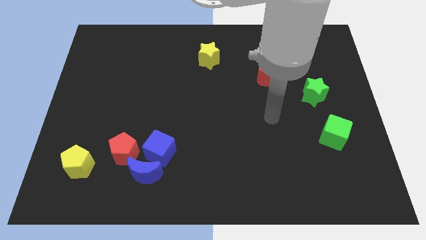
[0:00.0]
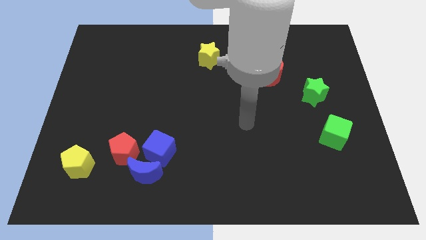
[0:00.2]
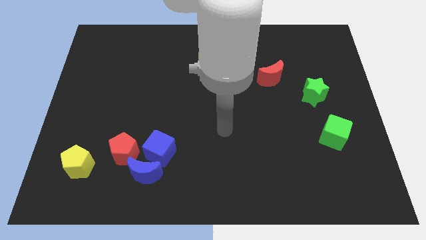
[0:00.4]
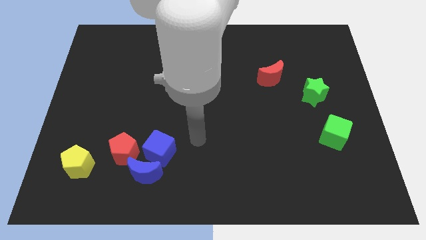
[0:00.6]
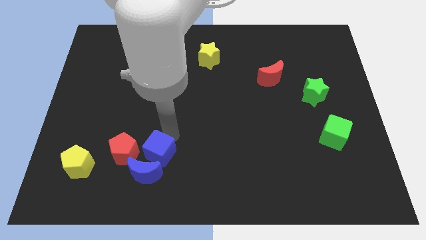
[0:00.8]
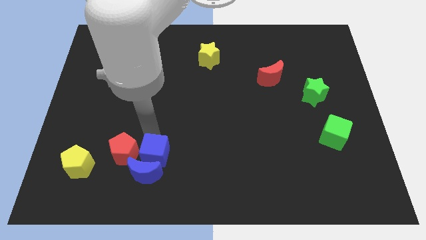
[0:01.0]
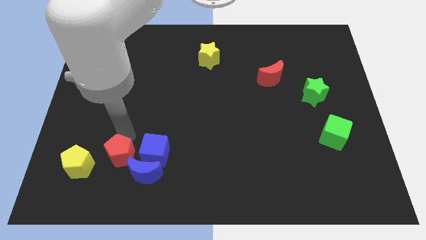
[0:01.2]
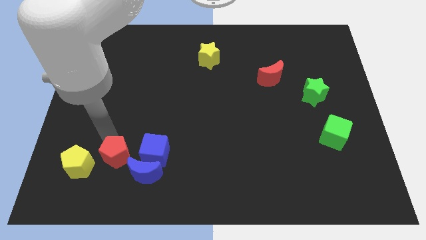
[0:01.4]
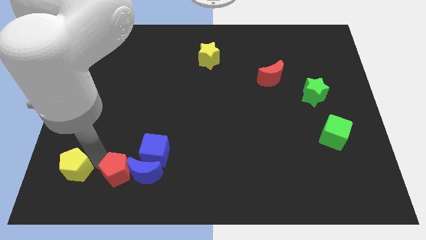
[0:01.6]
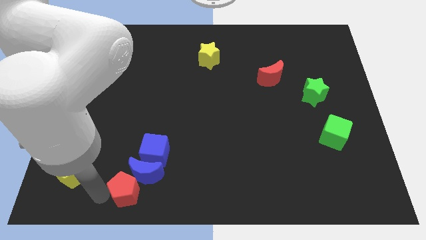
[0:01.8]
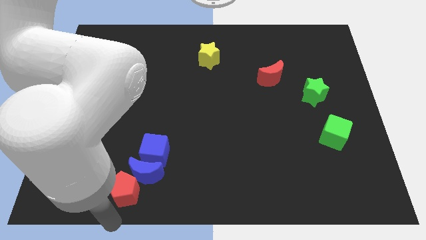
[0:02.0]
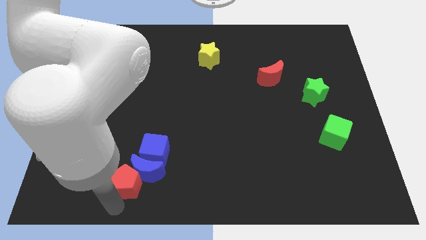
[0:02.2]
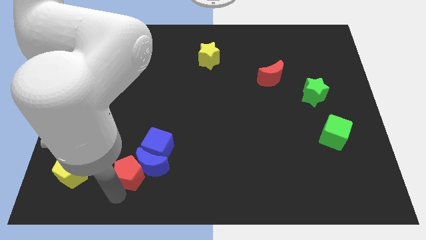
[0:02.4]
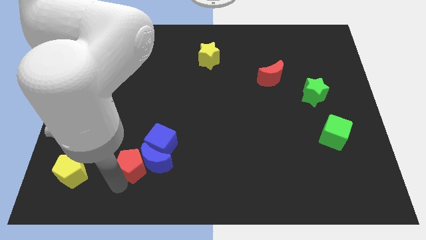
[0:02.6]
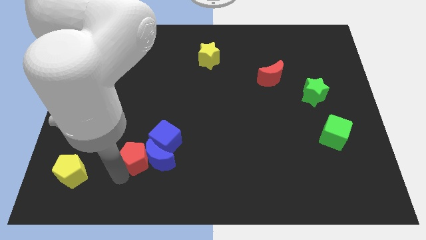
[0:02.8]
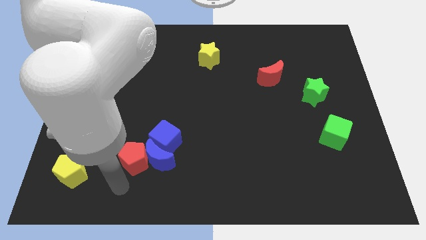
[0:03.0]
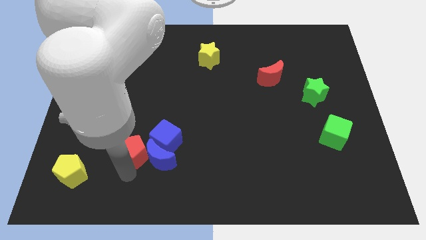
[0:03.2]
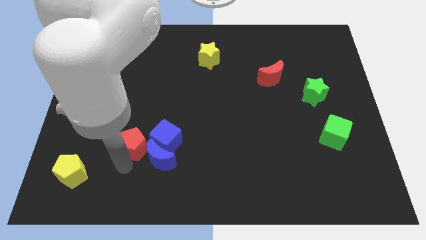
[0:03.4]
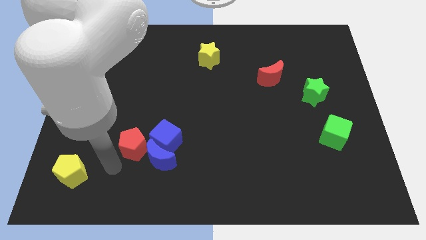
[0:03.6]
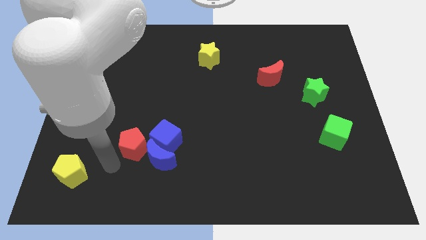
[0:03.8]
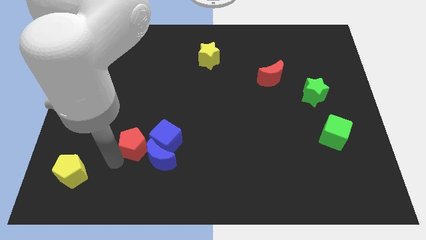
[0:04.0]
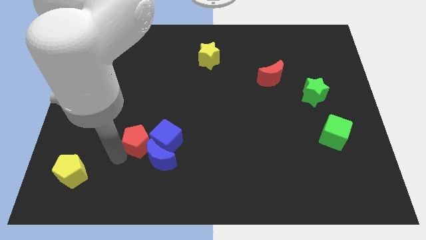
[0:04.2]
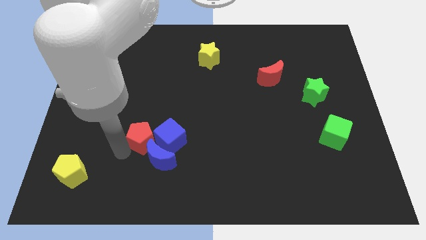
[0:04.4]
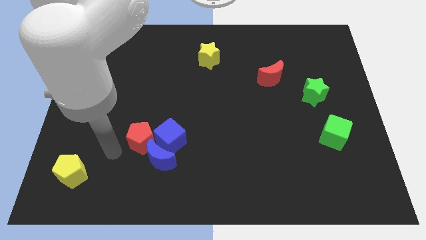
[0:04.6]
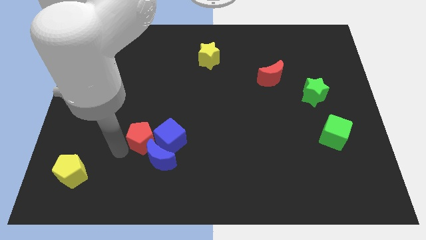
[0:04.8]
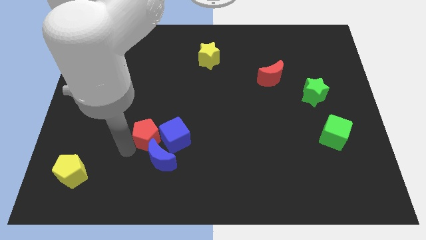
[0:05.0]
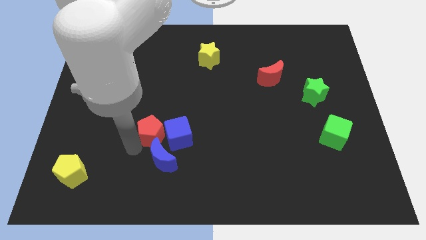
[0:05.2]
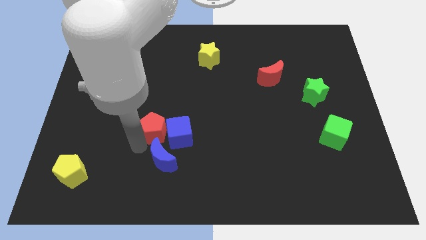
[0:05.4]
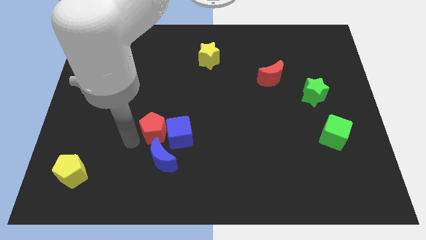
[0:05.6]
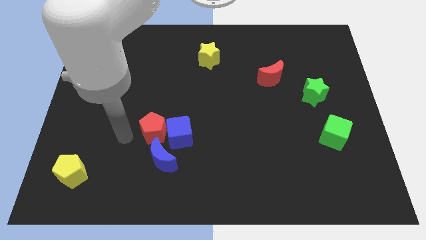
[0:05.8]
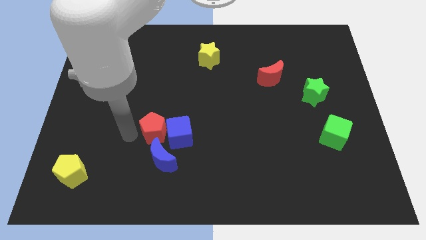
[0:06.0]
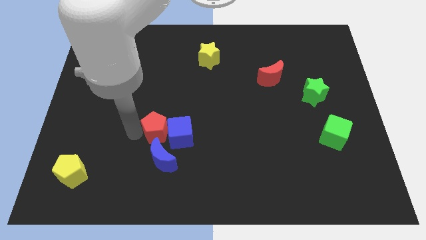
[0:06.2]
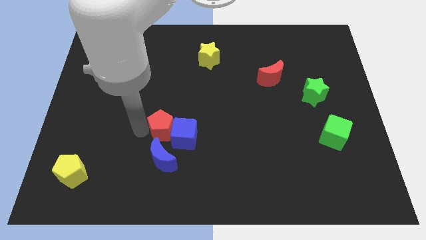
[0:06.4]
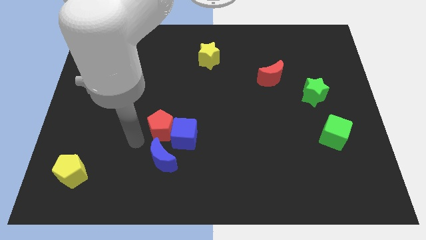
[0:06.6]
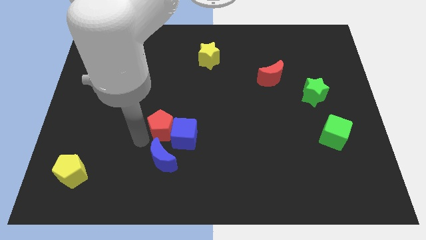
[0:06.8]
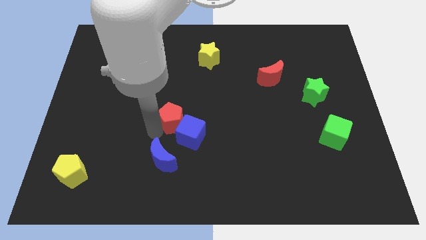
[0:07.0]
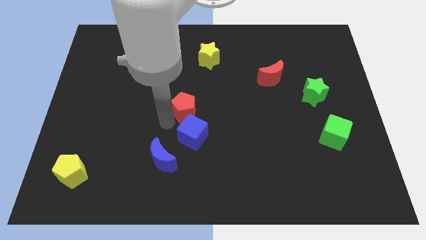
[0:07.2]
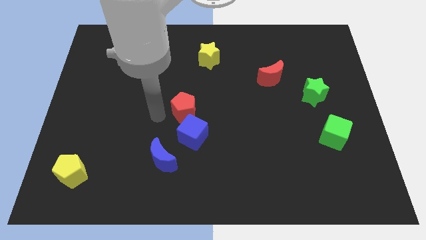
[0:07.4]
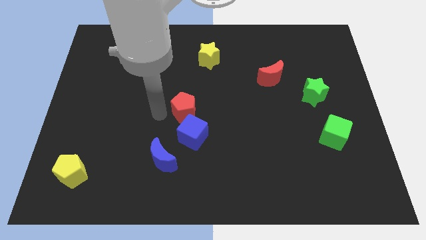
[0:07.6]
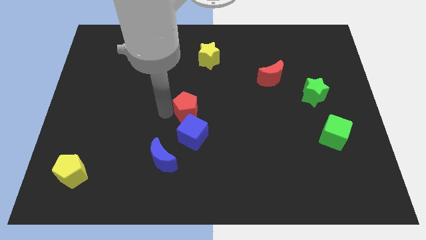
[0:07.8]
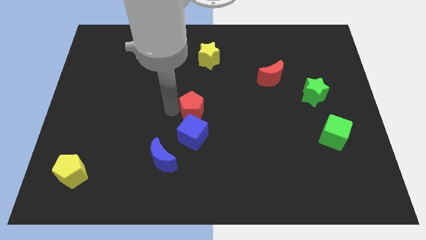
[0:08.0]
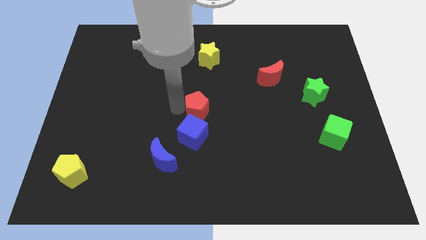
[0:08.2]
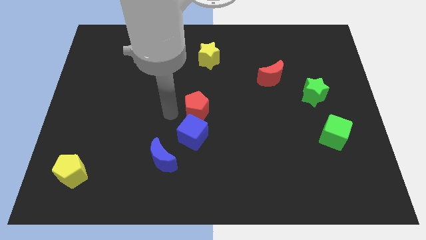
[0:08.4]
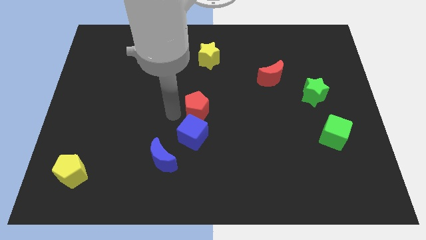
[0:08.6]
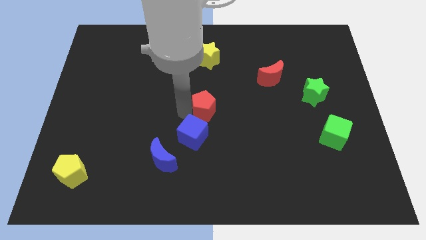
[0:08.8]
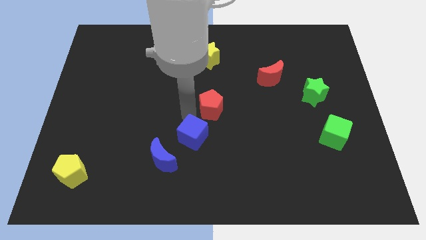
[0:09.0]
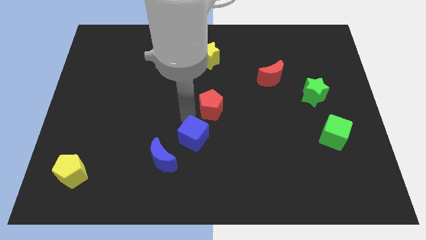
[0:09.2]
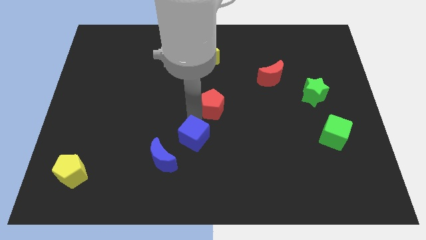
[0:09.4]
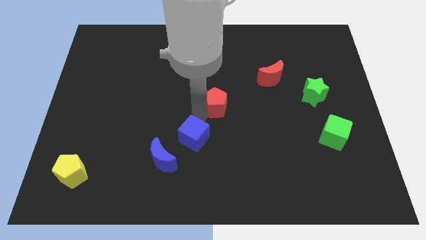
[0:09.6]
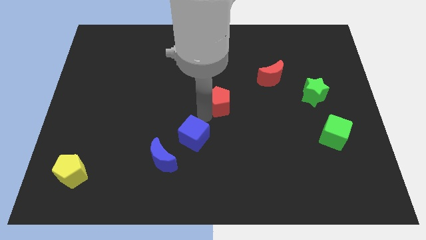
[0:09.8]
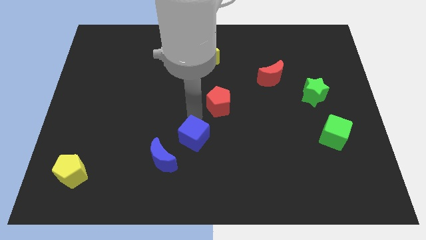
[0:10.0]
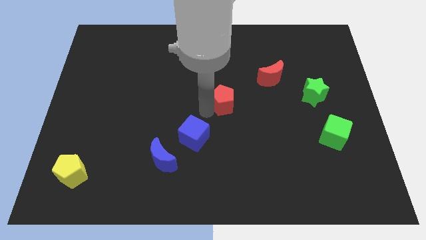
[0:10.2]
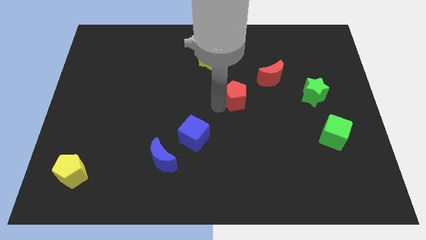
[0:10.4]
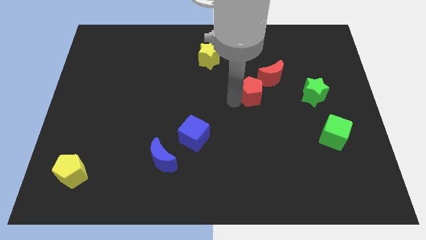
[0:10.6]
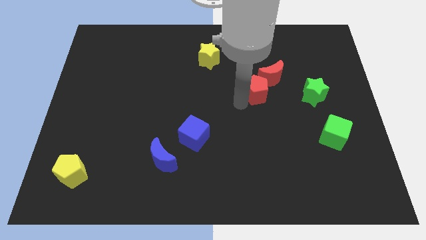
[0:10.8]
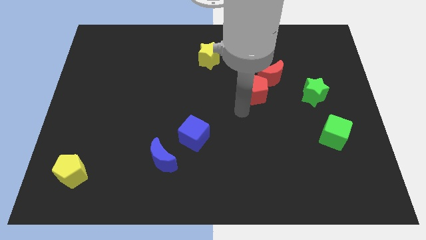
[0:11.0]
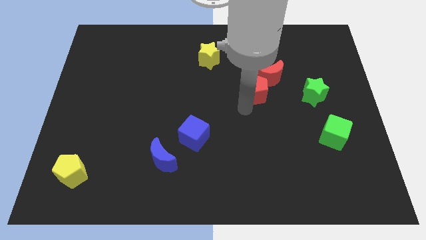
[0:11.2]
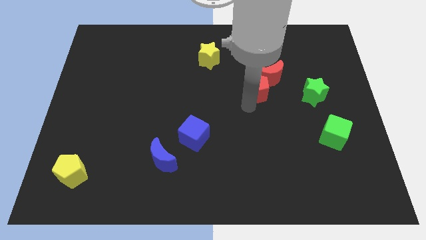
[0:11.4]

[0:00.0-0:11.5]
move the red pentagon towards the red moon
